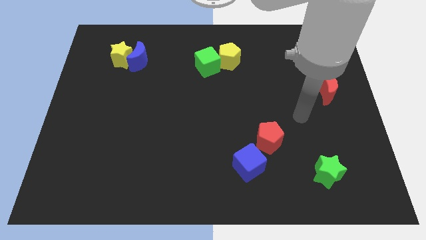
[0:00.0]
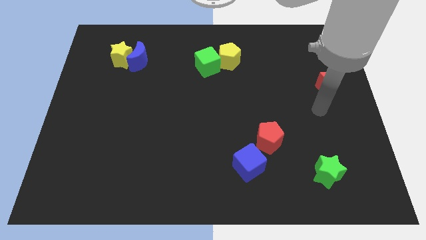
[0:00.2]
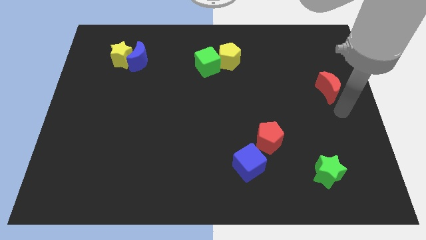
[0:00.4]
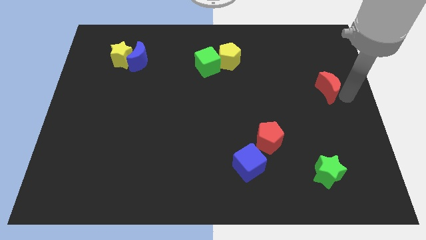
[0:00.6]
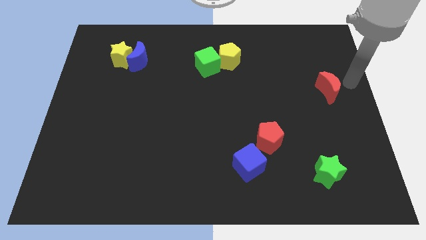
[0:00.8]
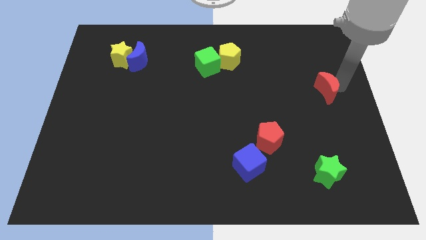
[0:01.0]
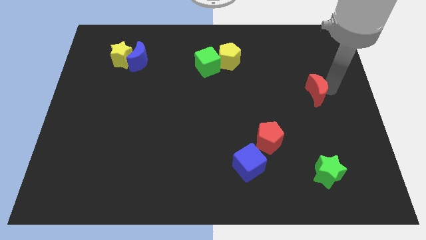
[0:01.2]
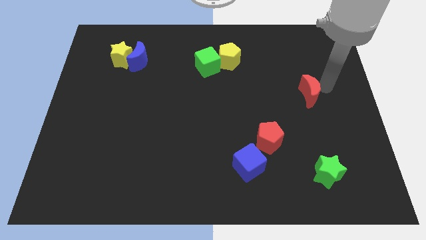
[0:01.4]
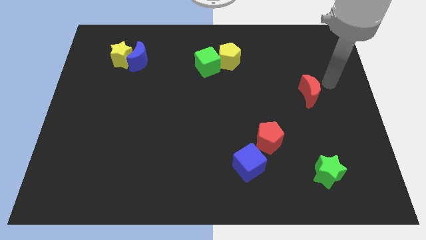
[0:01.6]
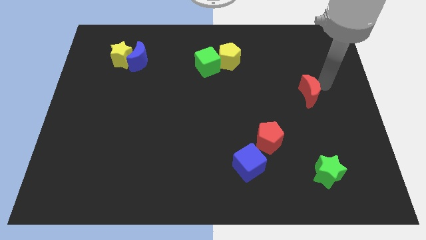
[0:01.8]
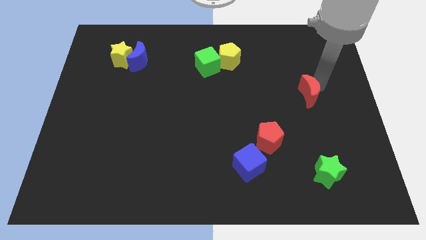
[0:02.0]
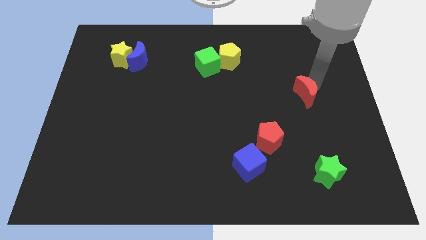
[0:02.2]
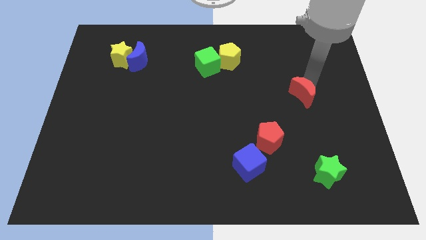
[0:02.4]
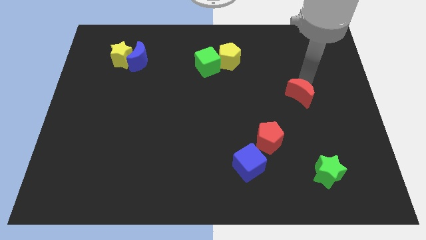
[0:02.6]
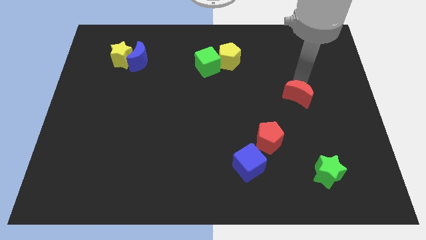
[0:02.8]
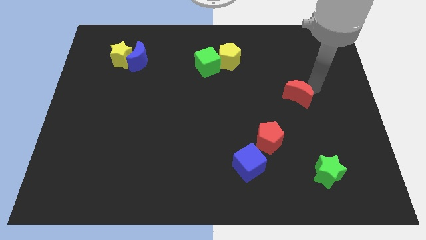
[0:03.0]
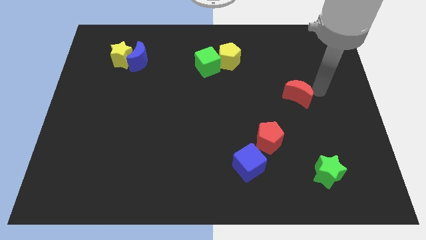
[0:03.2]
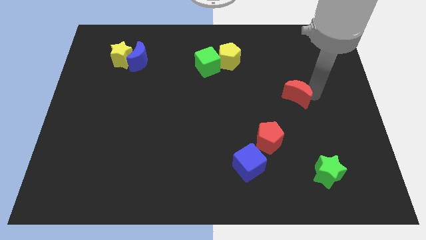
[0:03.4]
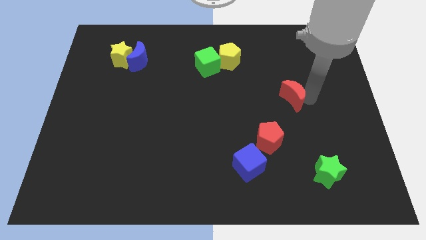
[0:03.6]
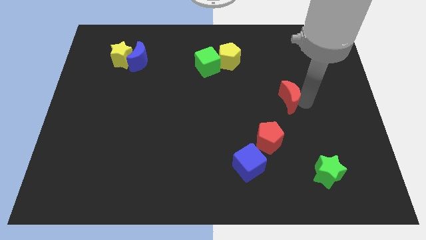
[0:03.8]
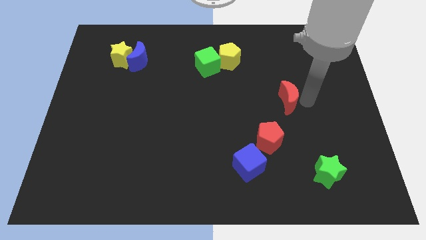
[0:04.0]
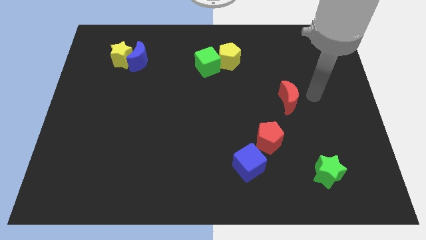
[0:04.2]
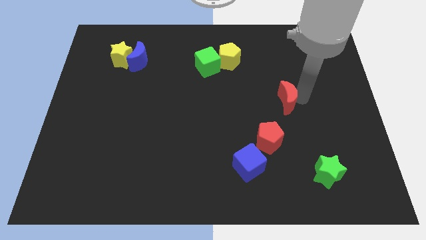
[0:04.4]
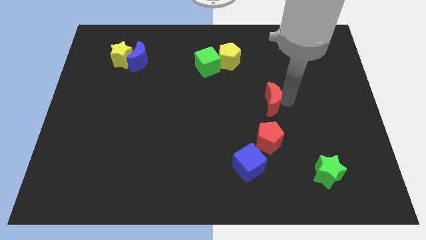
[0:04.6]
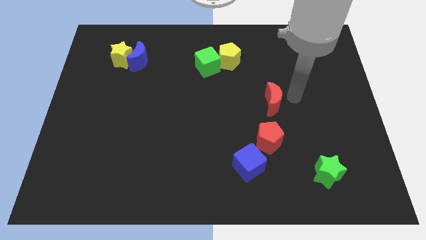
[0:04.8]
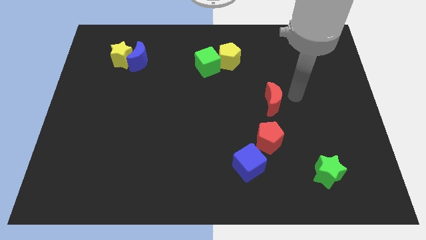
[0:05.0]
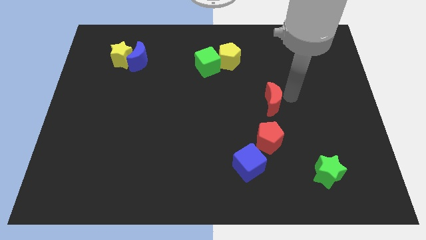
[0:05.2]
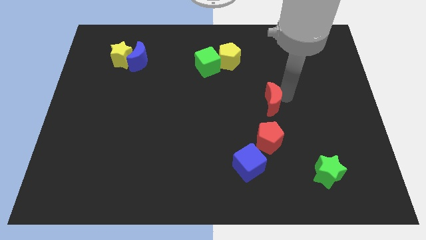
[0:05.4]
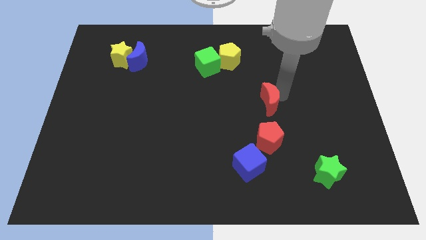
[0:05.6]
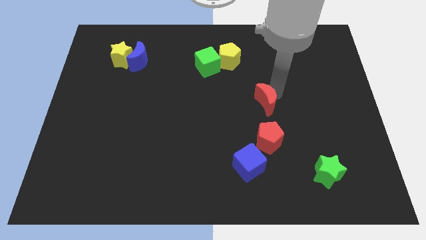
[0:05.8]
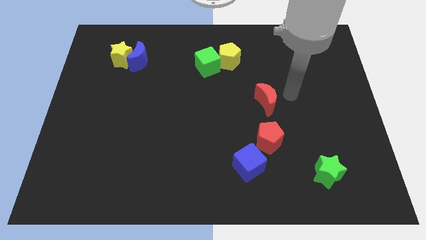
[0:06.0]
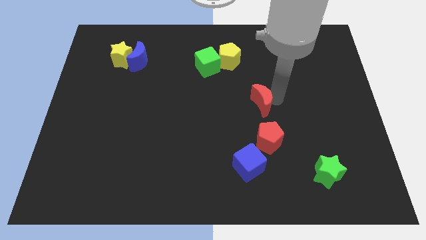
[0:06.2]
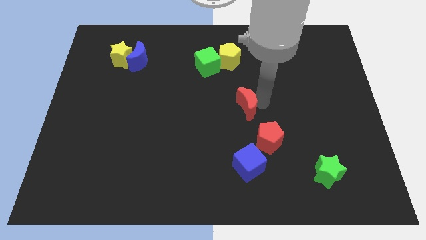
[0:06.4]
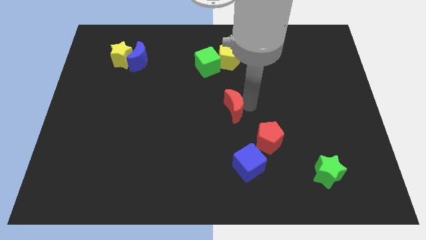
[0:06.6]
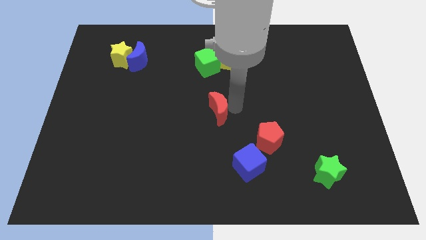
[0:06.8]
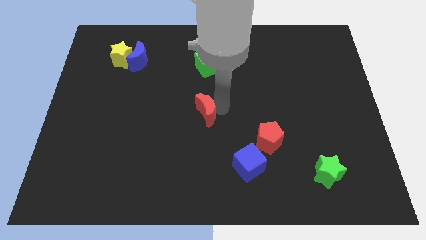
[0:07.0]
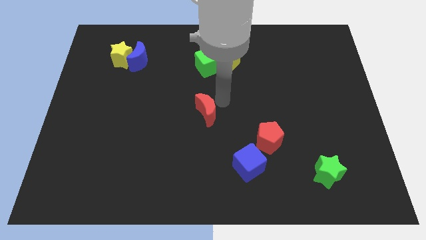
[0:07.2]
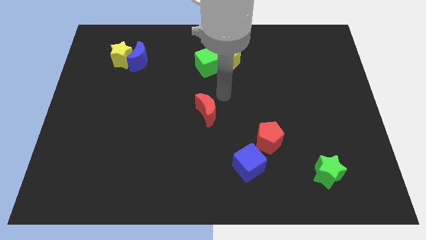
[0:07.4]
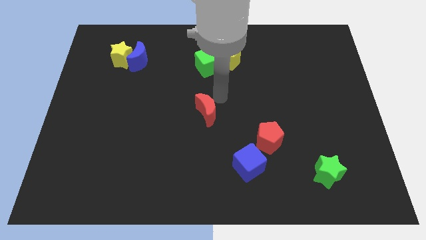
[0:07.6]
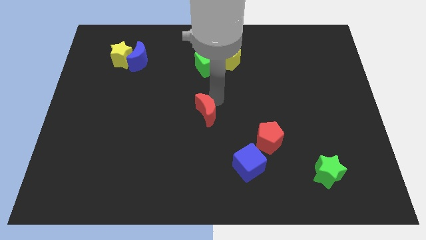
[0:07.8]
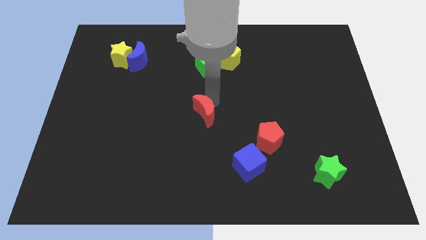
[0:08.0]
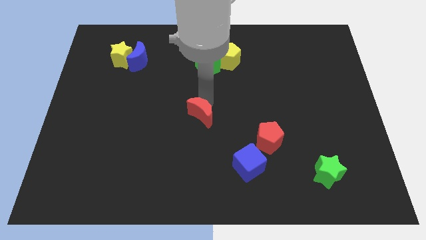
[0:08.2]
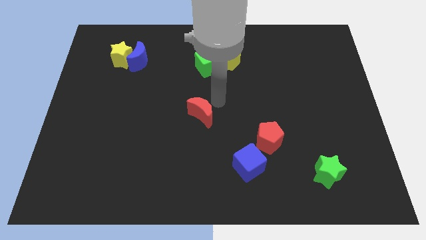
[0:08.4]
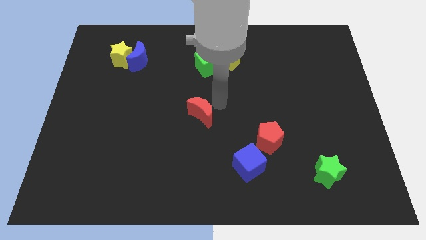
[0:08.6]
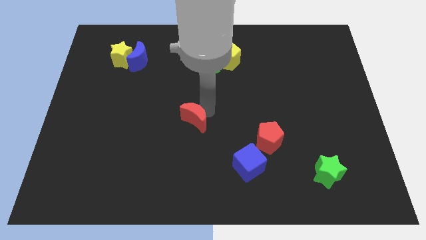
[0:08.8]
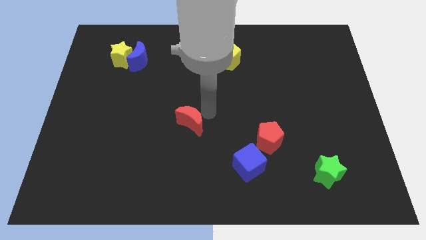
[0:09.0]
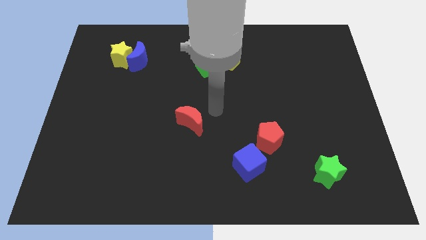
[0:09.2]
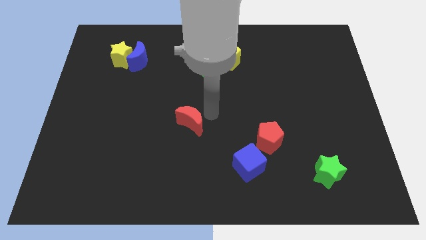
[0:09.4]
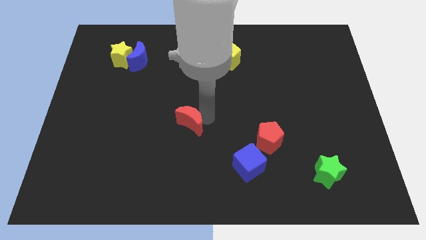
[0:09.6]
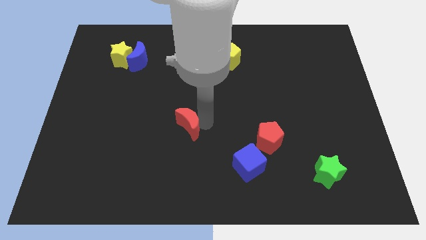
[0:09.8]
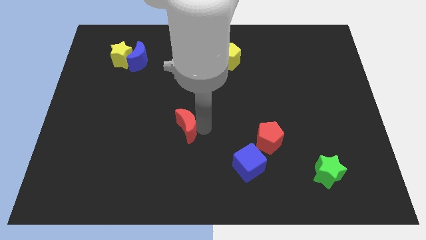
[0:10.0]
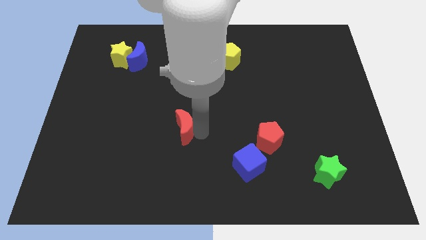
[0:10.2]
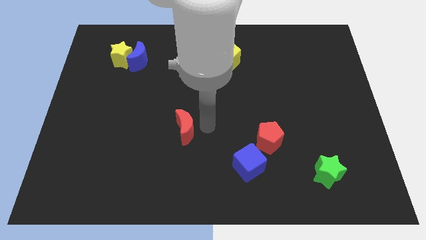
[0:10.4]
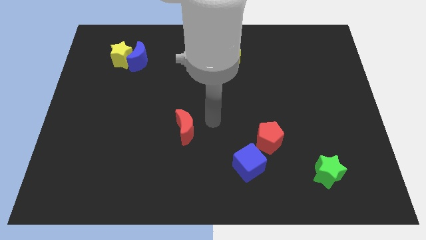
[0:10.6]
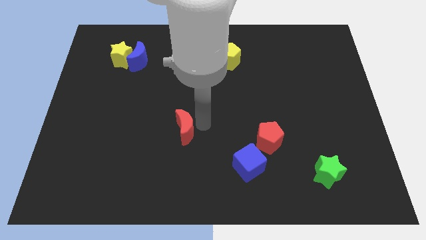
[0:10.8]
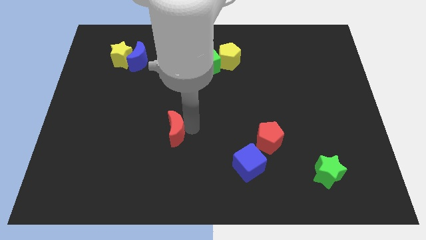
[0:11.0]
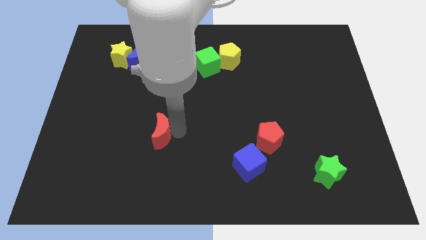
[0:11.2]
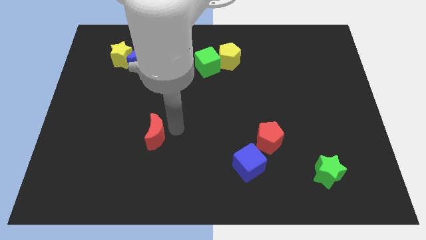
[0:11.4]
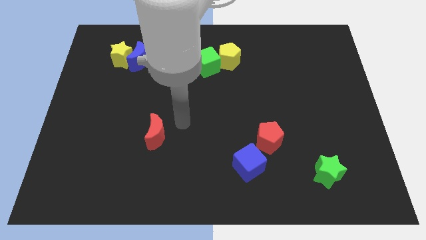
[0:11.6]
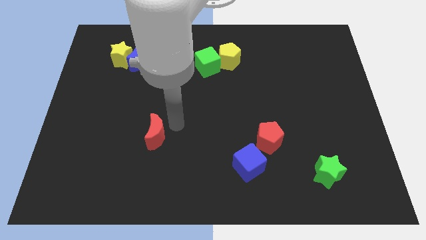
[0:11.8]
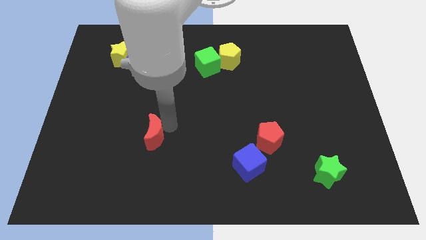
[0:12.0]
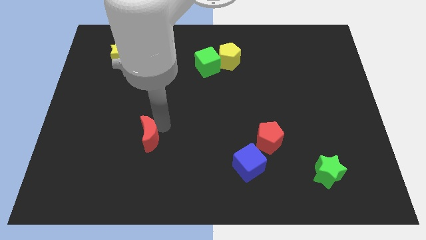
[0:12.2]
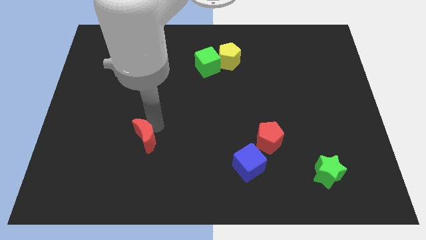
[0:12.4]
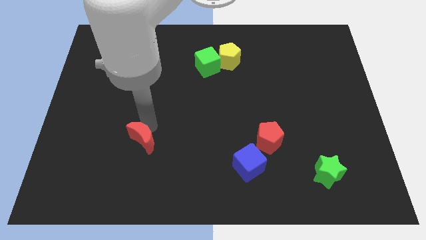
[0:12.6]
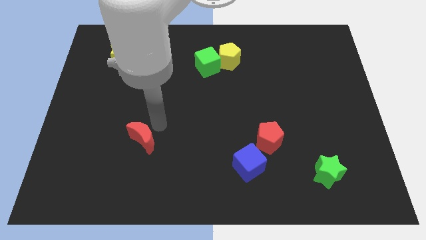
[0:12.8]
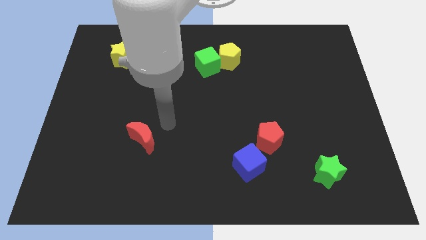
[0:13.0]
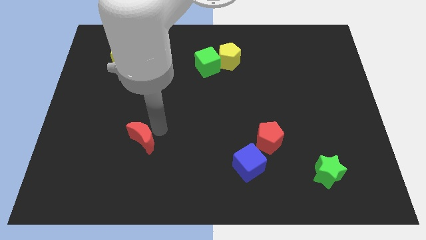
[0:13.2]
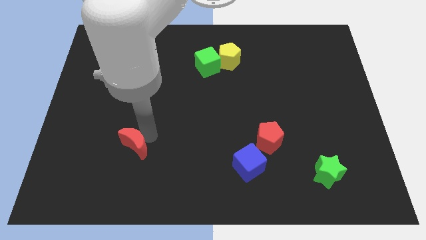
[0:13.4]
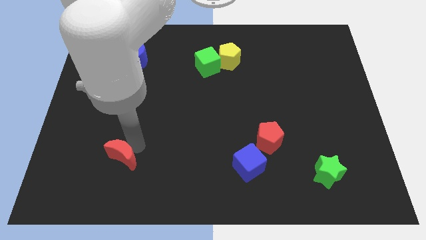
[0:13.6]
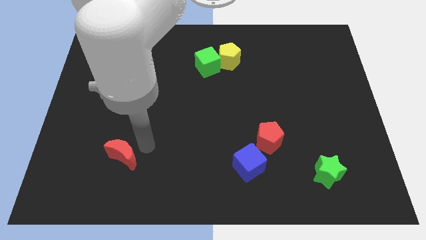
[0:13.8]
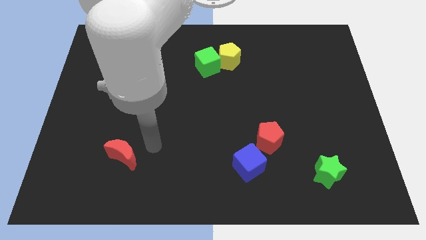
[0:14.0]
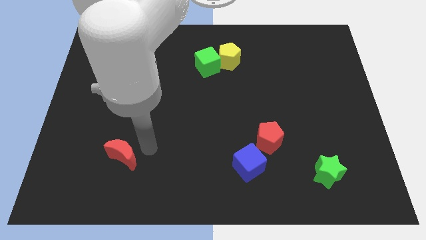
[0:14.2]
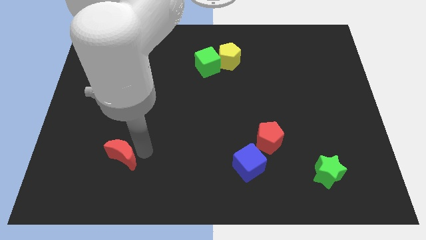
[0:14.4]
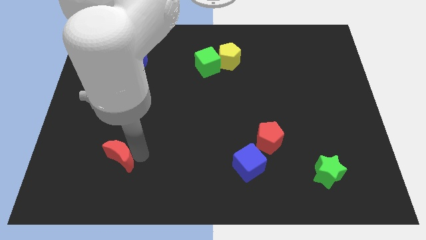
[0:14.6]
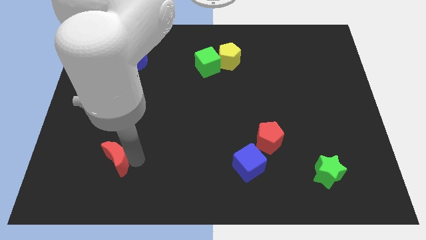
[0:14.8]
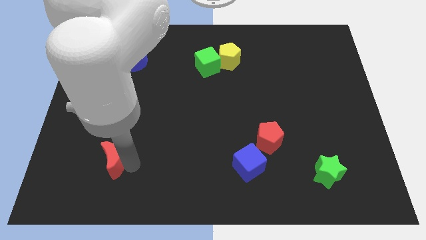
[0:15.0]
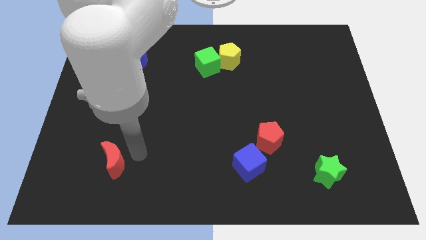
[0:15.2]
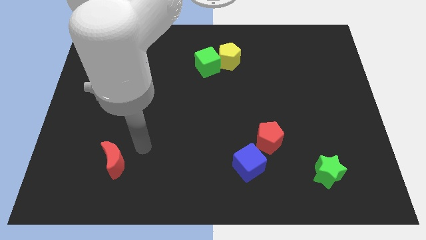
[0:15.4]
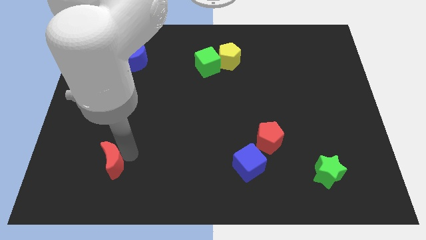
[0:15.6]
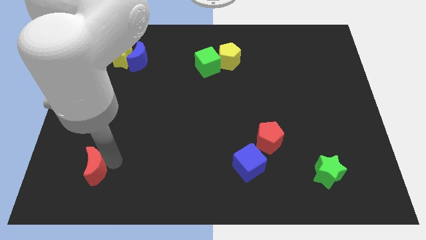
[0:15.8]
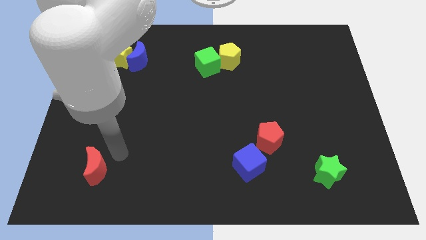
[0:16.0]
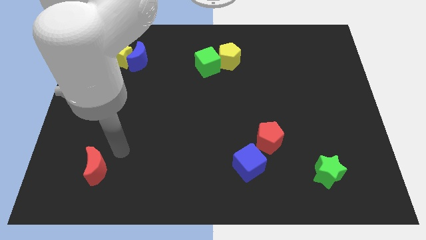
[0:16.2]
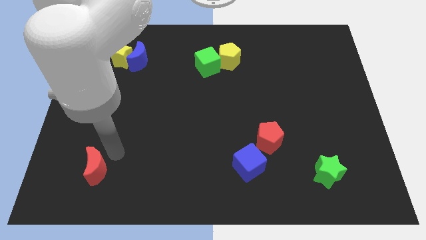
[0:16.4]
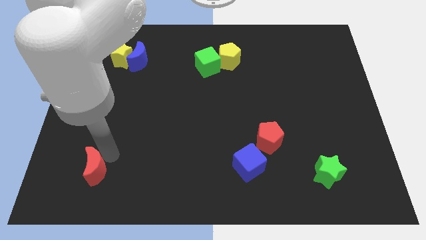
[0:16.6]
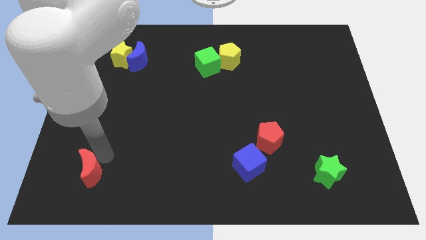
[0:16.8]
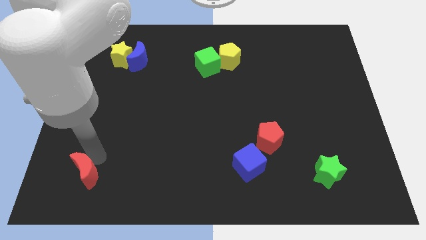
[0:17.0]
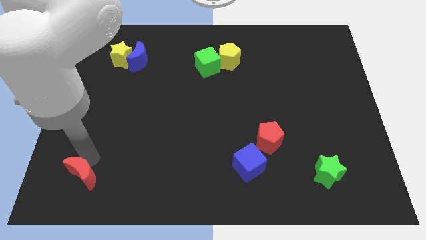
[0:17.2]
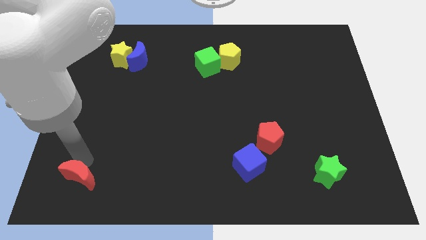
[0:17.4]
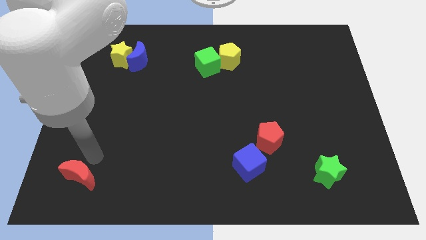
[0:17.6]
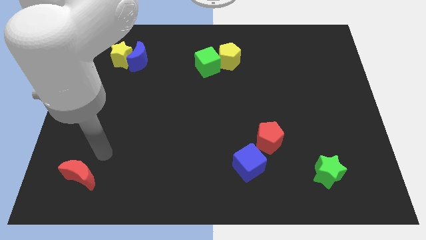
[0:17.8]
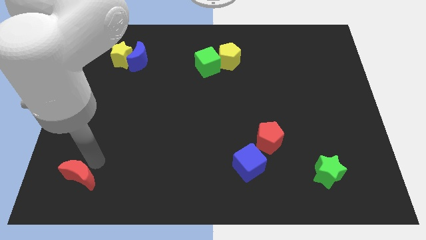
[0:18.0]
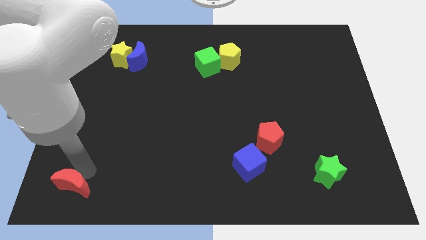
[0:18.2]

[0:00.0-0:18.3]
push the red moon to the bottom left
